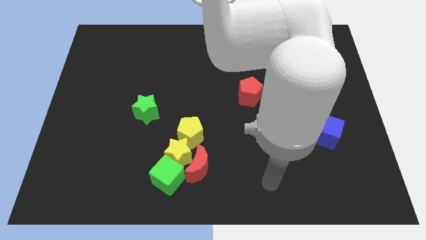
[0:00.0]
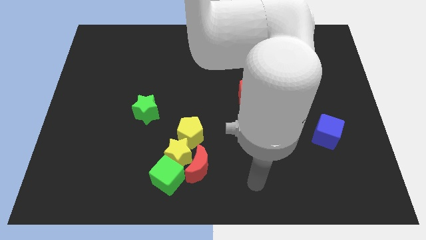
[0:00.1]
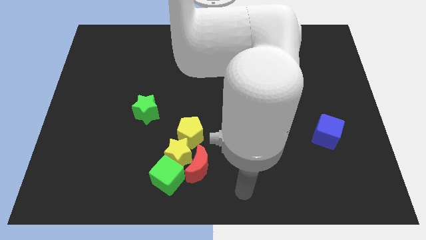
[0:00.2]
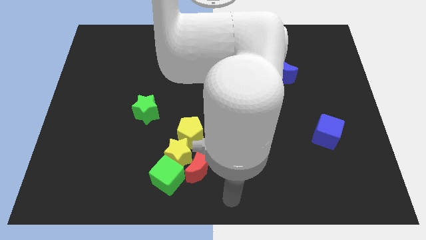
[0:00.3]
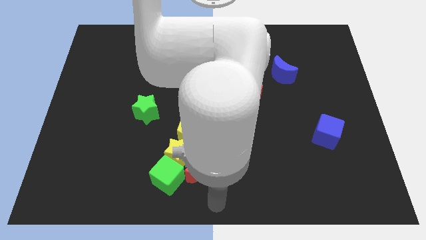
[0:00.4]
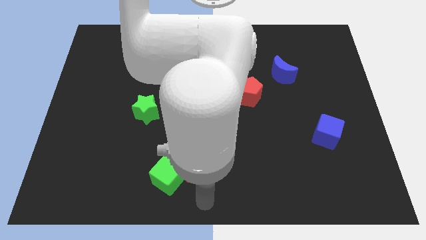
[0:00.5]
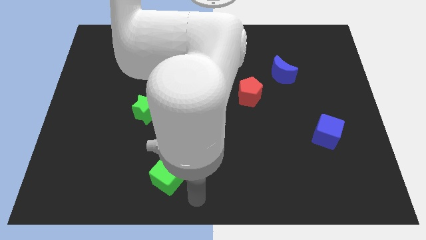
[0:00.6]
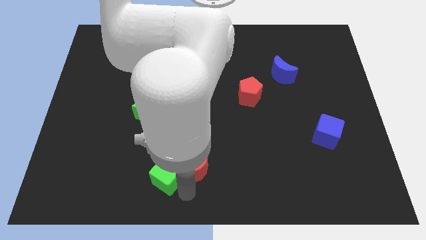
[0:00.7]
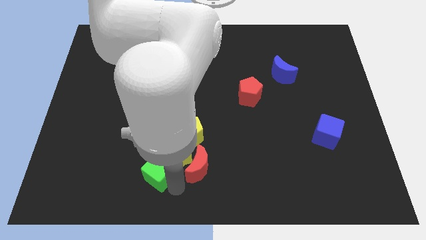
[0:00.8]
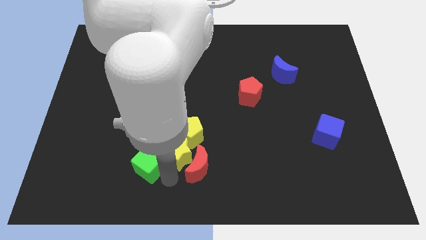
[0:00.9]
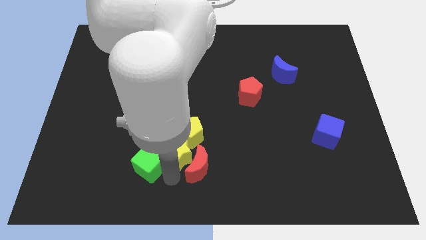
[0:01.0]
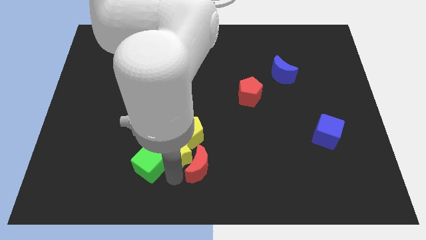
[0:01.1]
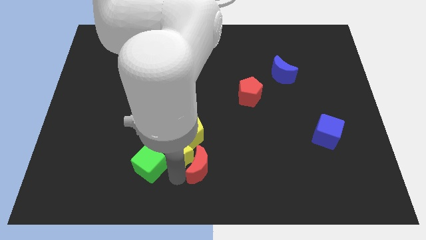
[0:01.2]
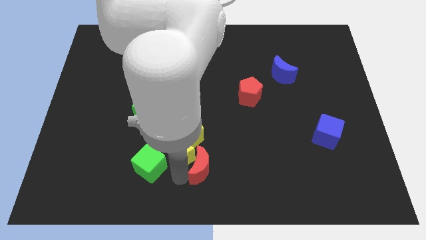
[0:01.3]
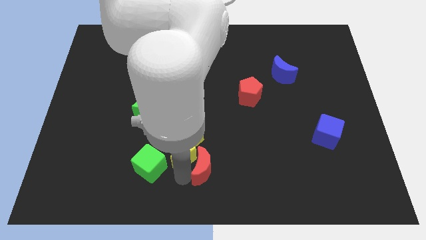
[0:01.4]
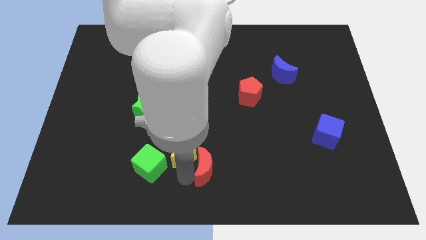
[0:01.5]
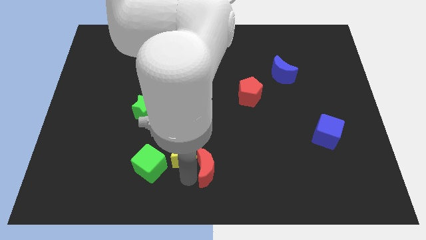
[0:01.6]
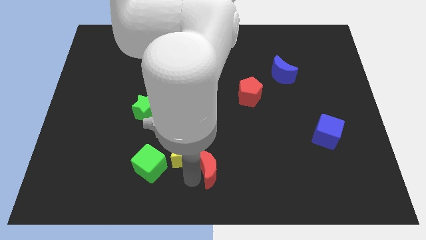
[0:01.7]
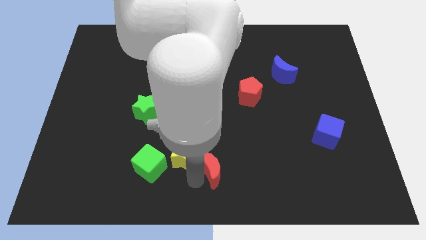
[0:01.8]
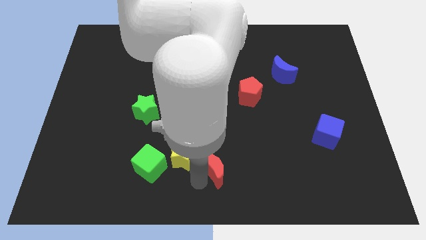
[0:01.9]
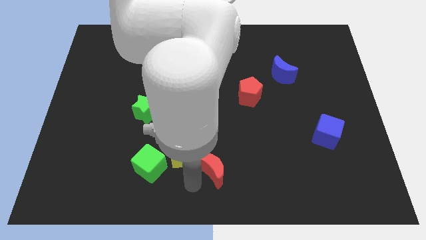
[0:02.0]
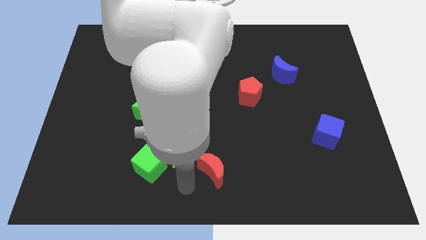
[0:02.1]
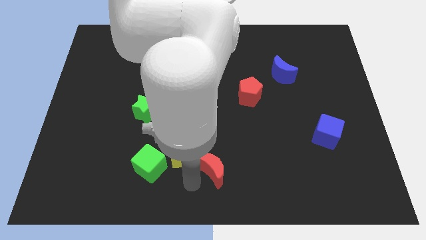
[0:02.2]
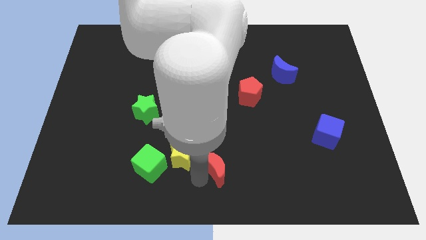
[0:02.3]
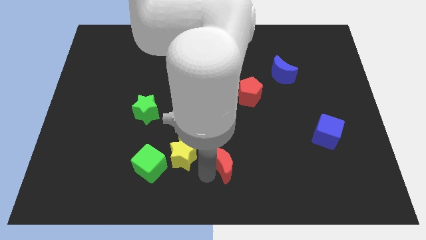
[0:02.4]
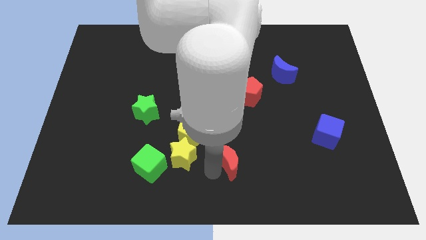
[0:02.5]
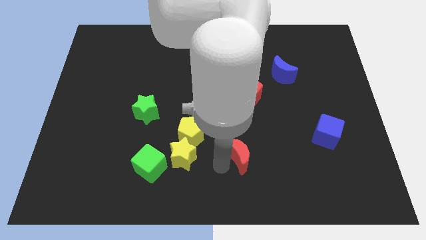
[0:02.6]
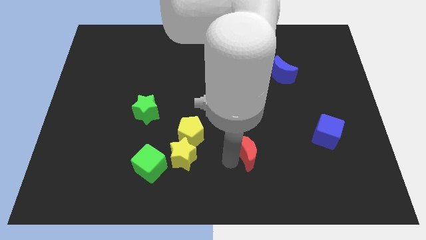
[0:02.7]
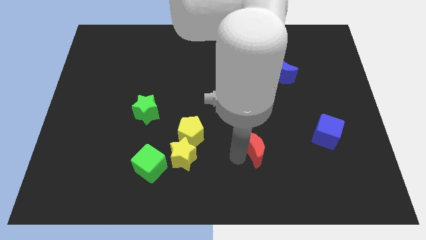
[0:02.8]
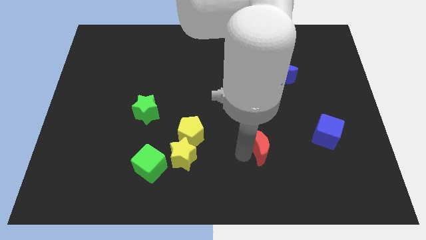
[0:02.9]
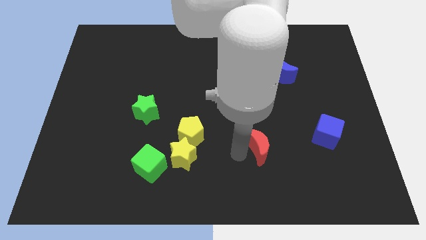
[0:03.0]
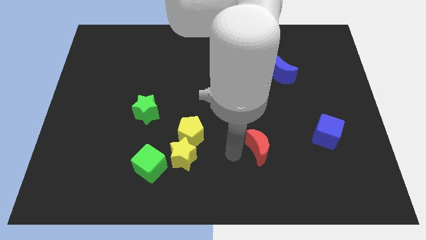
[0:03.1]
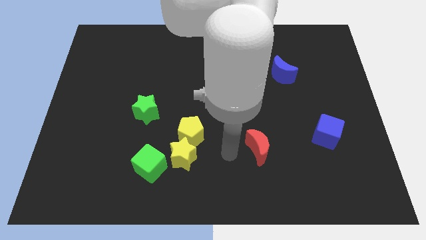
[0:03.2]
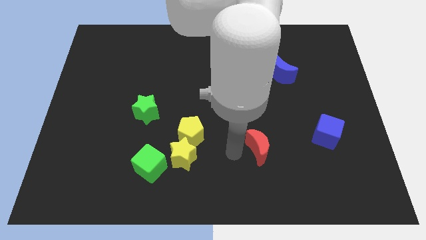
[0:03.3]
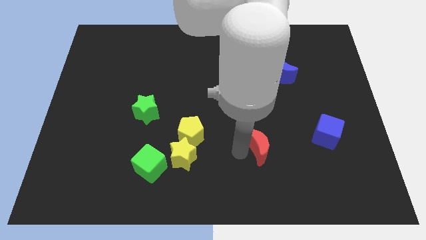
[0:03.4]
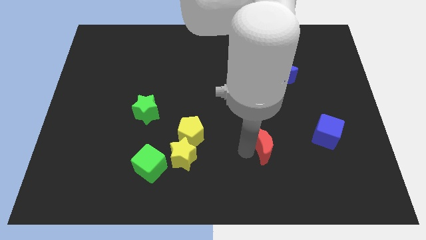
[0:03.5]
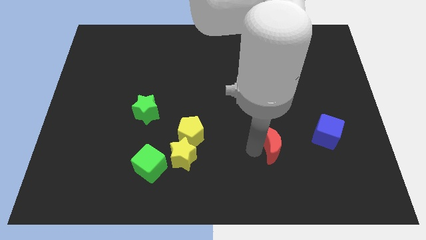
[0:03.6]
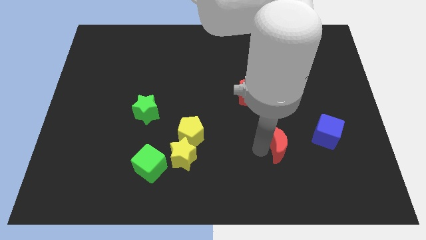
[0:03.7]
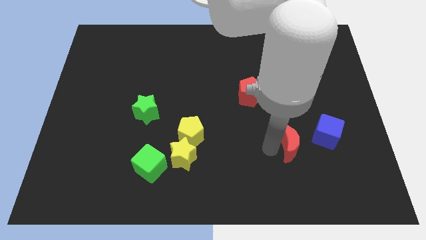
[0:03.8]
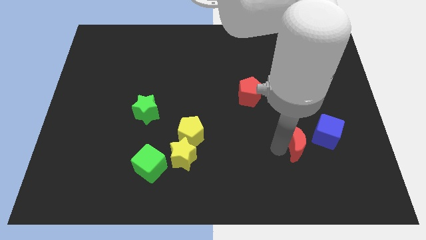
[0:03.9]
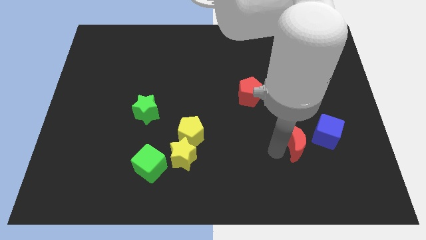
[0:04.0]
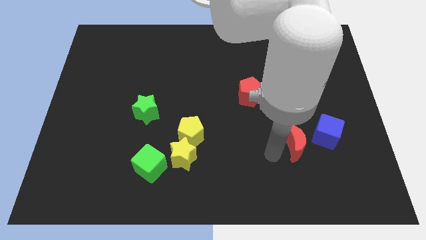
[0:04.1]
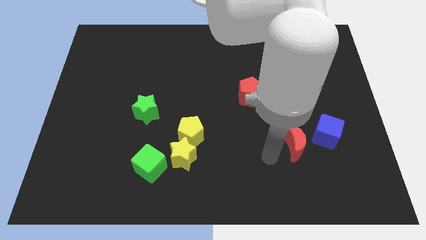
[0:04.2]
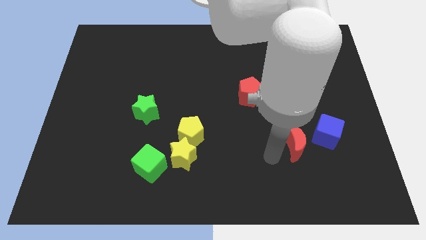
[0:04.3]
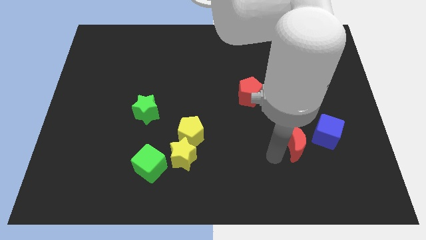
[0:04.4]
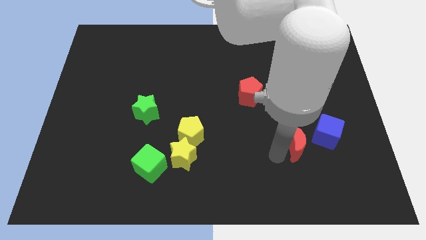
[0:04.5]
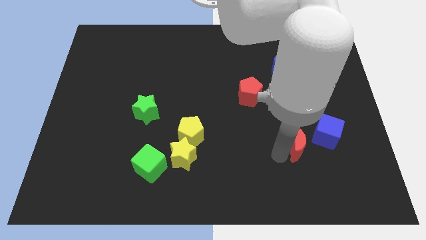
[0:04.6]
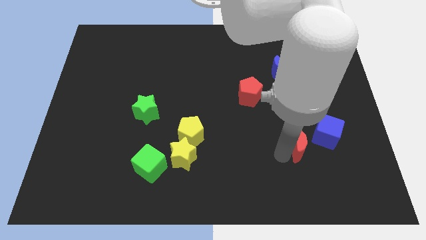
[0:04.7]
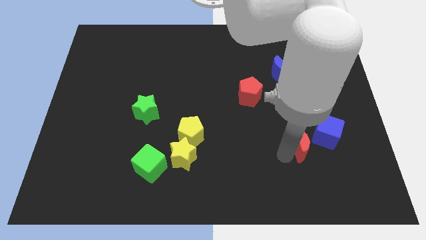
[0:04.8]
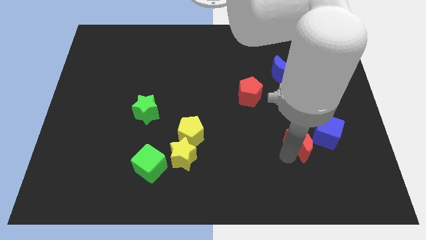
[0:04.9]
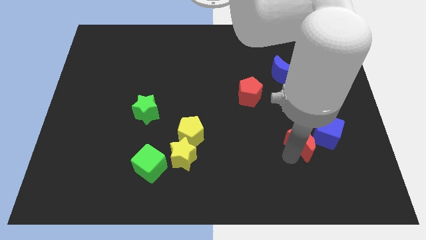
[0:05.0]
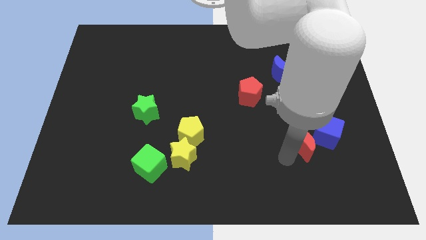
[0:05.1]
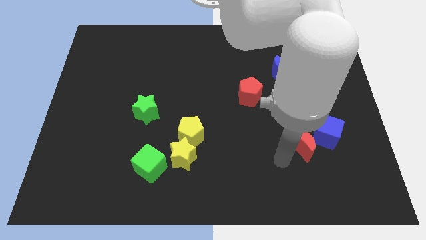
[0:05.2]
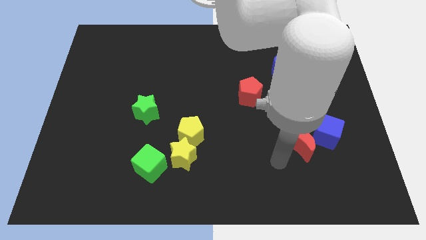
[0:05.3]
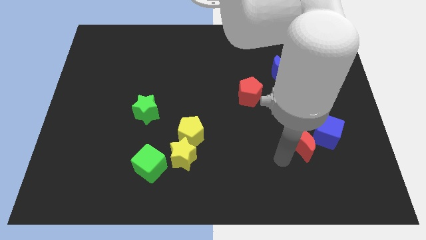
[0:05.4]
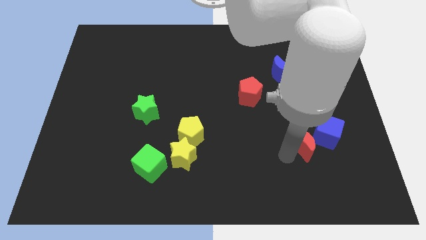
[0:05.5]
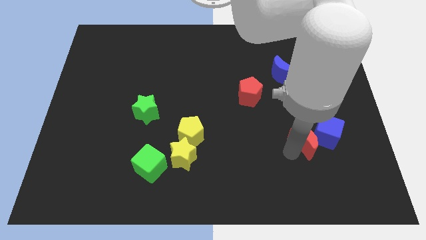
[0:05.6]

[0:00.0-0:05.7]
put the red moon next to the blue cube

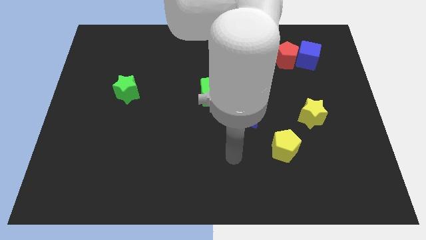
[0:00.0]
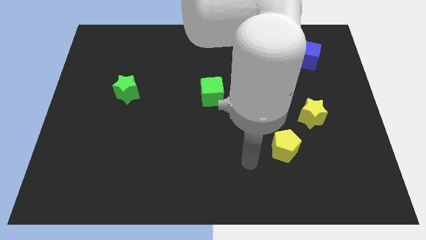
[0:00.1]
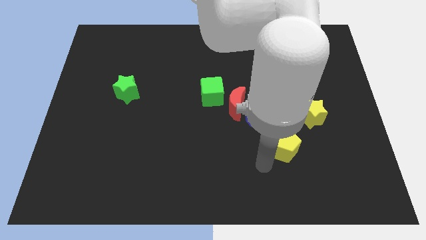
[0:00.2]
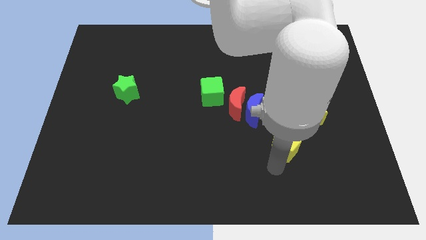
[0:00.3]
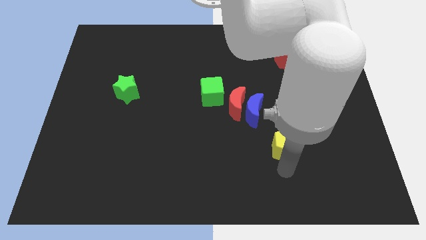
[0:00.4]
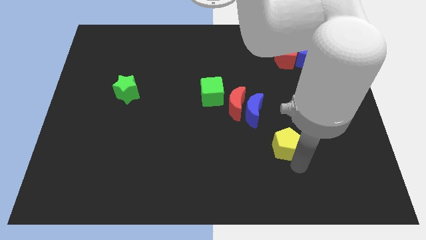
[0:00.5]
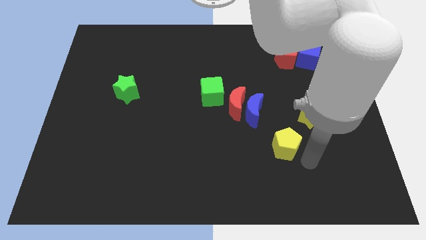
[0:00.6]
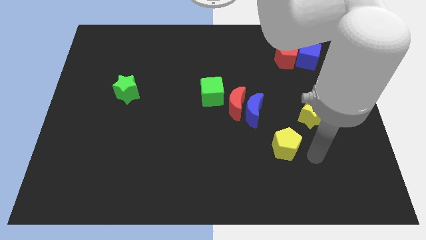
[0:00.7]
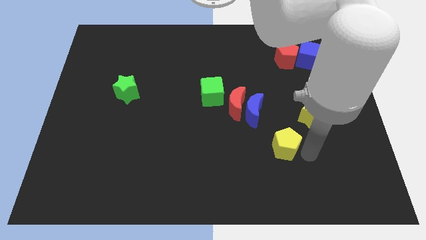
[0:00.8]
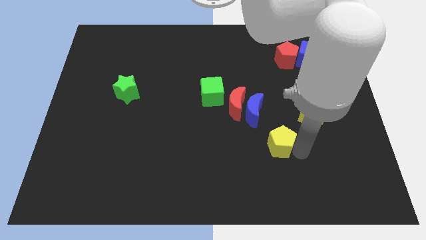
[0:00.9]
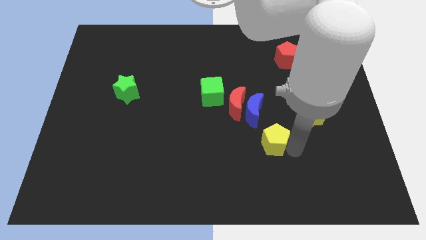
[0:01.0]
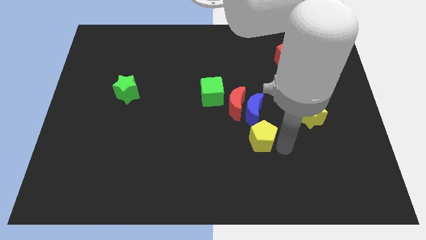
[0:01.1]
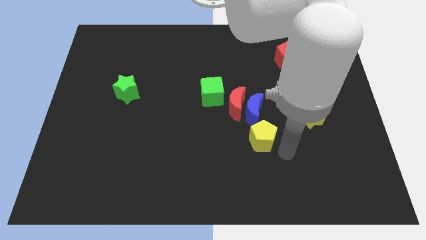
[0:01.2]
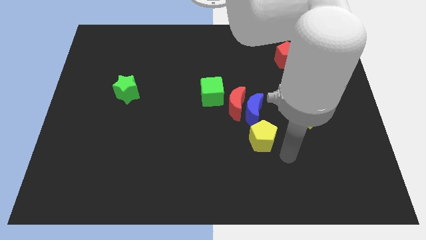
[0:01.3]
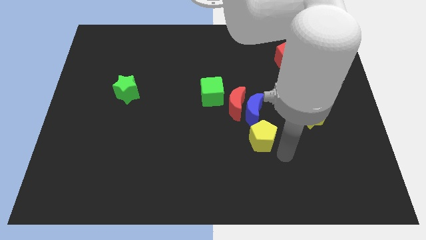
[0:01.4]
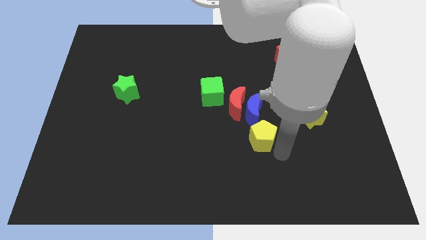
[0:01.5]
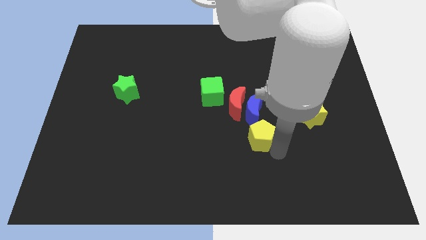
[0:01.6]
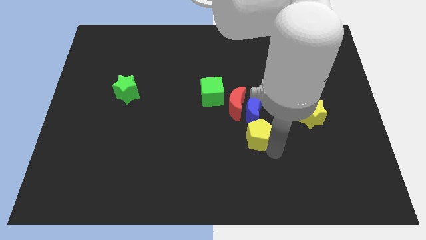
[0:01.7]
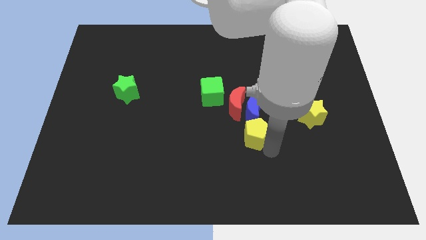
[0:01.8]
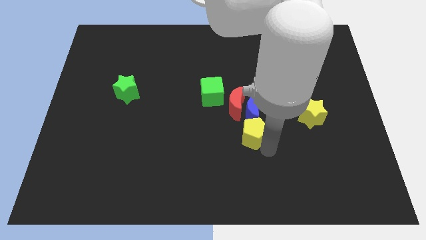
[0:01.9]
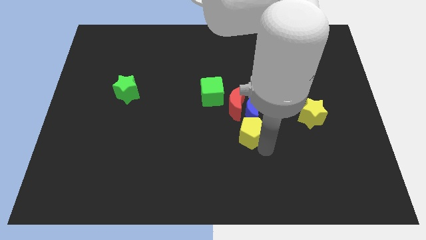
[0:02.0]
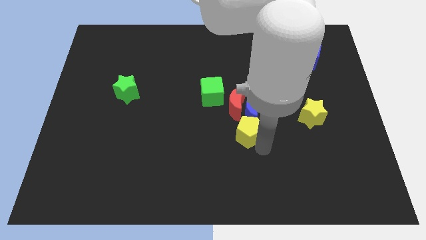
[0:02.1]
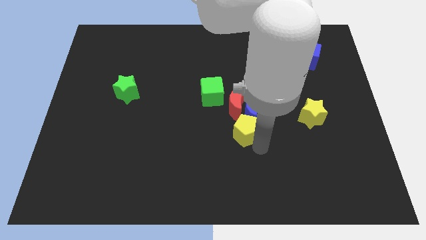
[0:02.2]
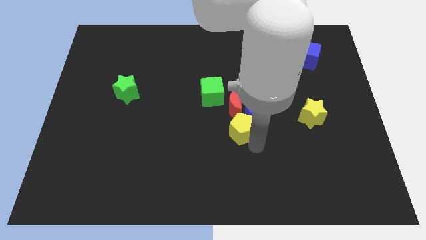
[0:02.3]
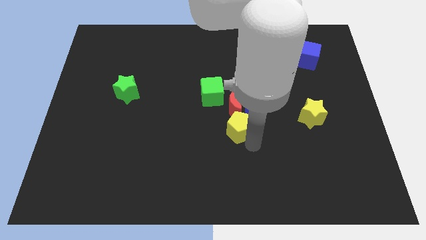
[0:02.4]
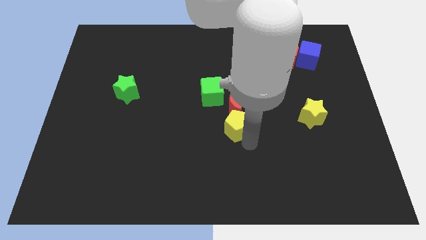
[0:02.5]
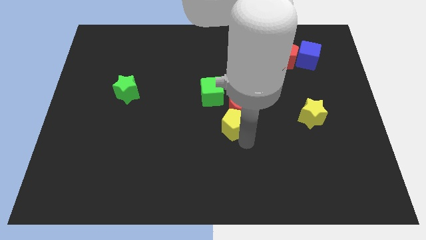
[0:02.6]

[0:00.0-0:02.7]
put the yellow pentagon next to the red moon
